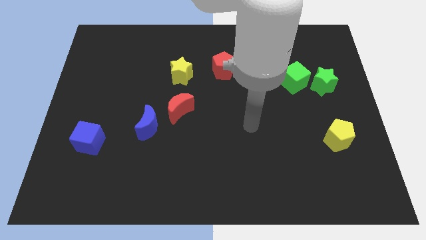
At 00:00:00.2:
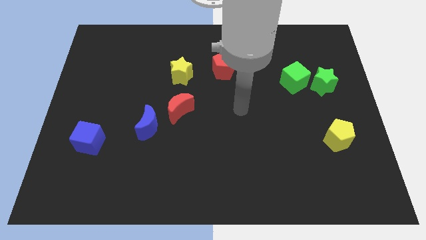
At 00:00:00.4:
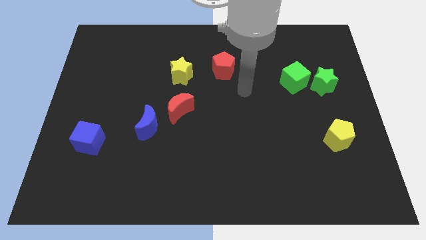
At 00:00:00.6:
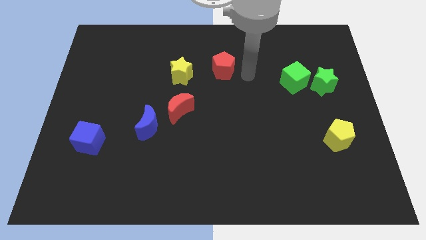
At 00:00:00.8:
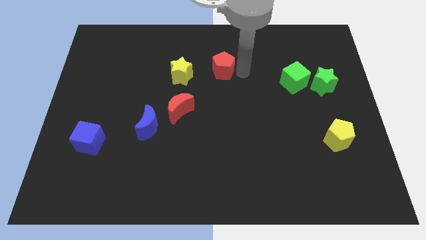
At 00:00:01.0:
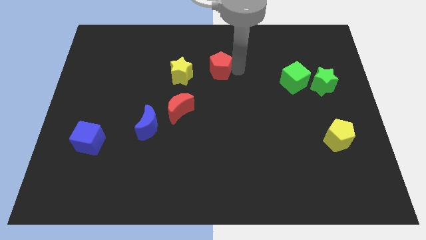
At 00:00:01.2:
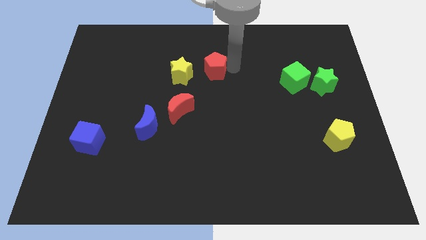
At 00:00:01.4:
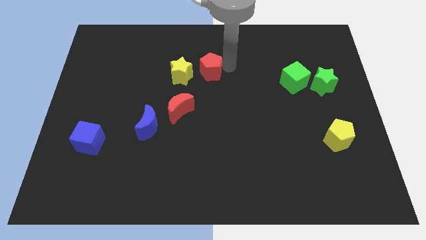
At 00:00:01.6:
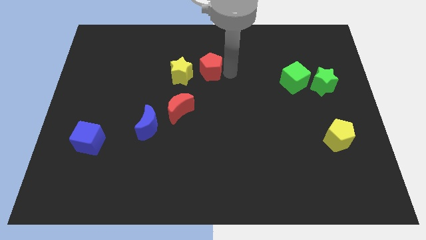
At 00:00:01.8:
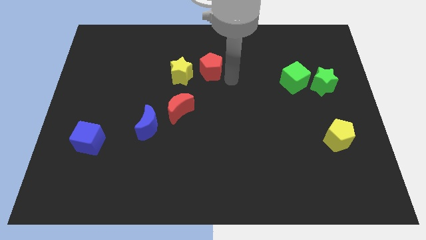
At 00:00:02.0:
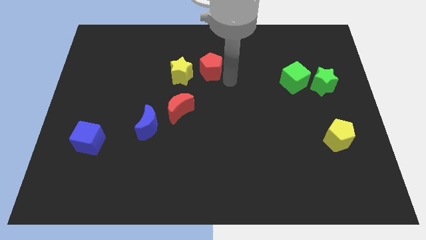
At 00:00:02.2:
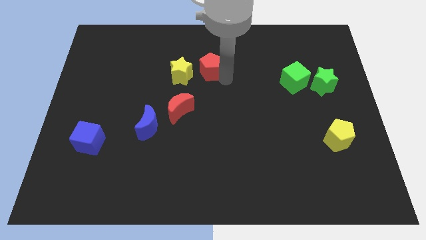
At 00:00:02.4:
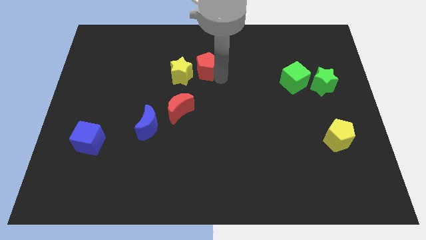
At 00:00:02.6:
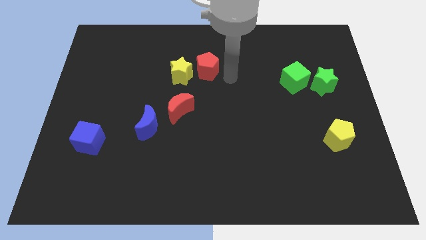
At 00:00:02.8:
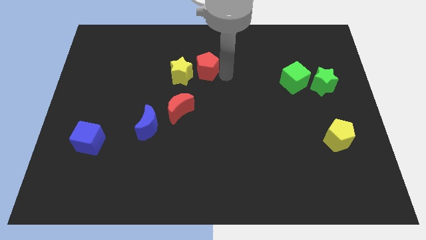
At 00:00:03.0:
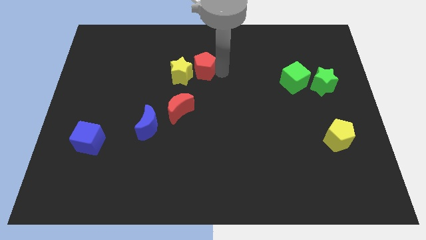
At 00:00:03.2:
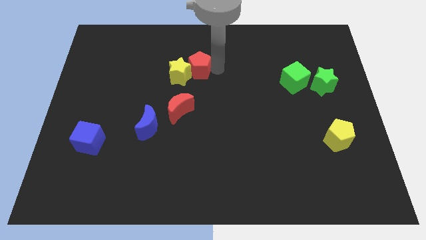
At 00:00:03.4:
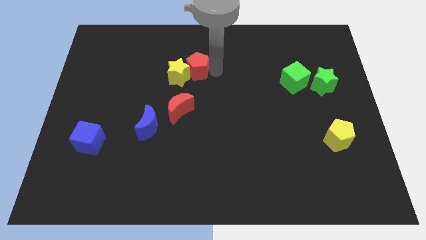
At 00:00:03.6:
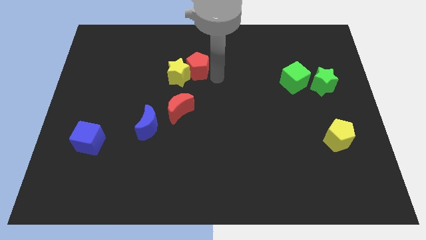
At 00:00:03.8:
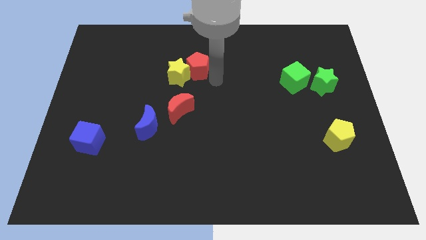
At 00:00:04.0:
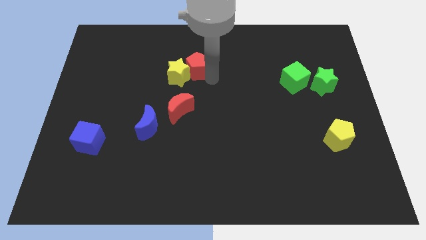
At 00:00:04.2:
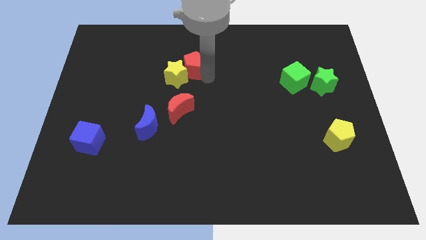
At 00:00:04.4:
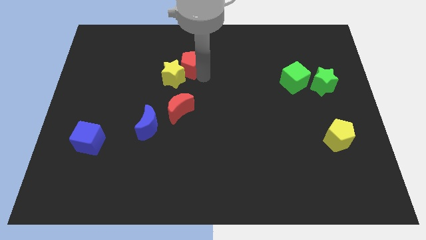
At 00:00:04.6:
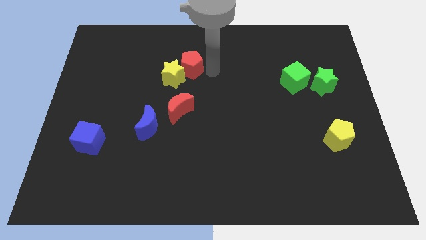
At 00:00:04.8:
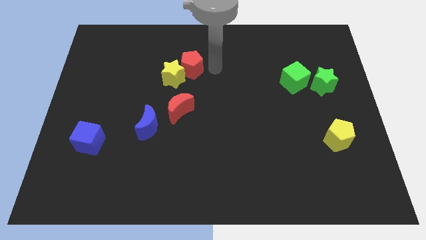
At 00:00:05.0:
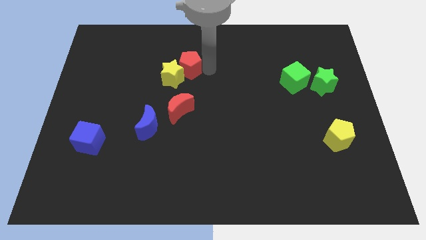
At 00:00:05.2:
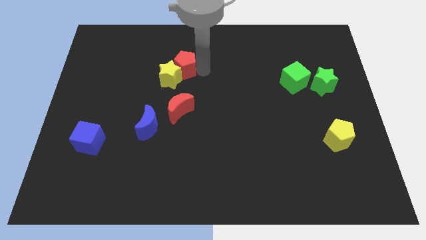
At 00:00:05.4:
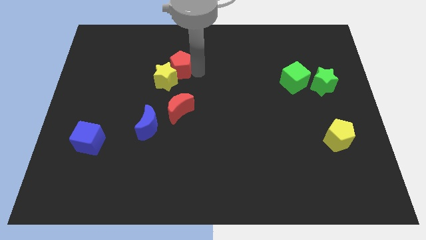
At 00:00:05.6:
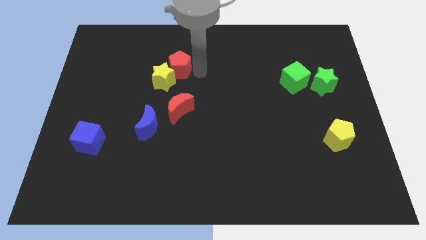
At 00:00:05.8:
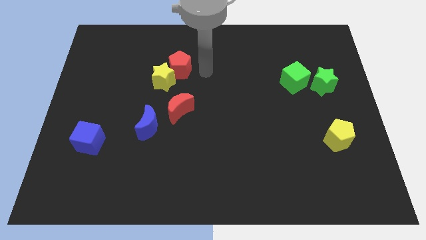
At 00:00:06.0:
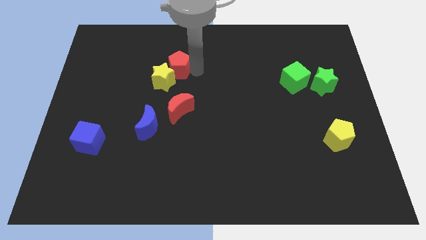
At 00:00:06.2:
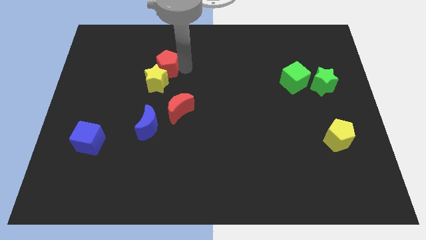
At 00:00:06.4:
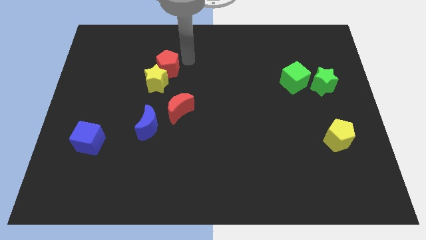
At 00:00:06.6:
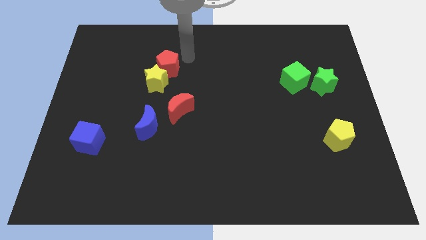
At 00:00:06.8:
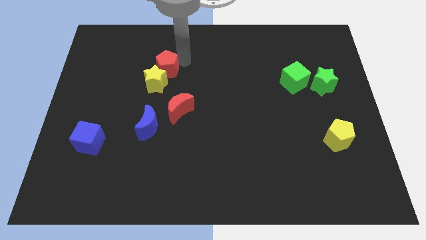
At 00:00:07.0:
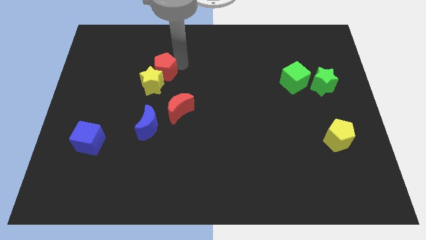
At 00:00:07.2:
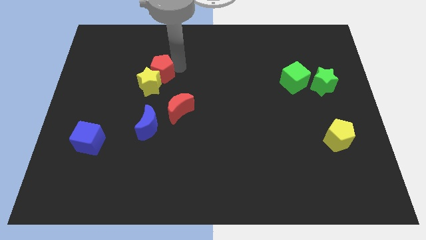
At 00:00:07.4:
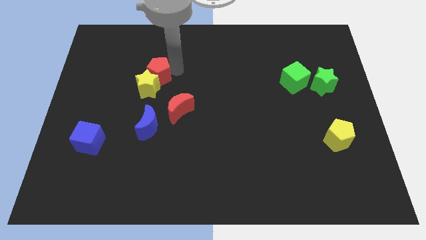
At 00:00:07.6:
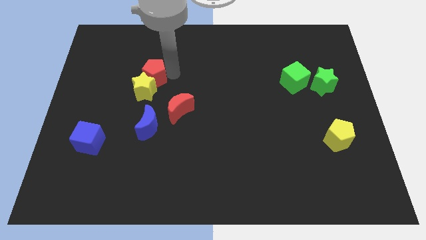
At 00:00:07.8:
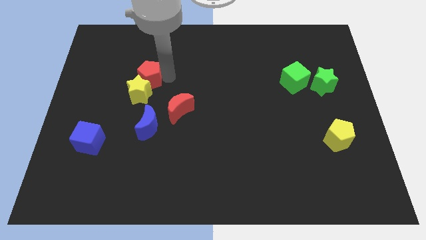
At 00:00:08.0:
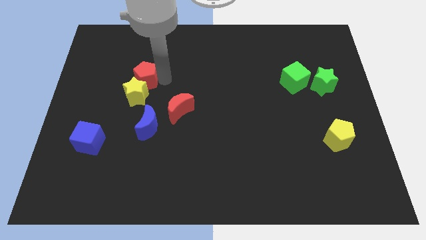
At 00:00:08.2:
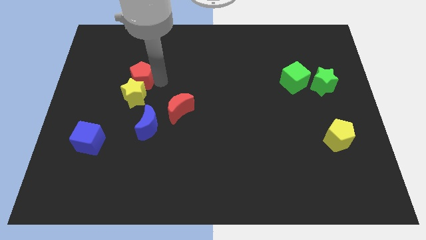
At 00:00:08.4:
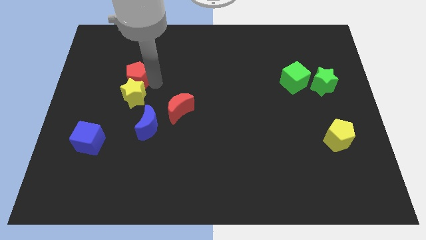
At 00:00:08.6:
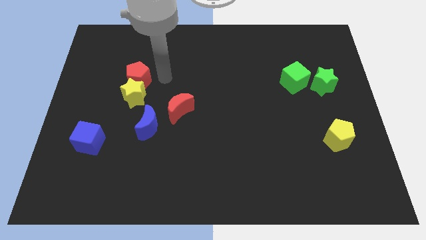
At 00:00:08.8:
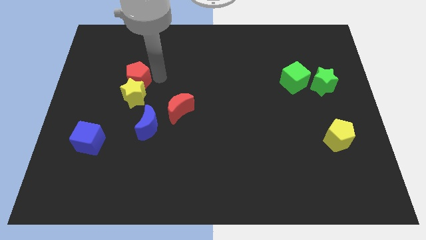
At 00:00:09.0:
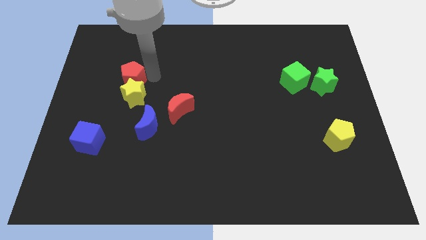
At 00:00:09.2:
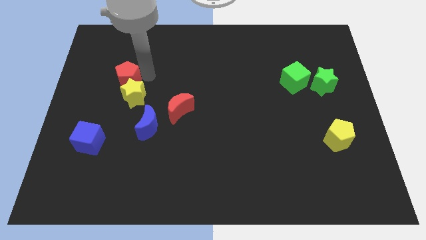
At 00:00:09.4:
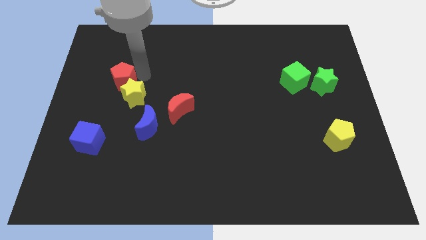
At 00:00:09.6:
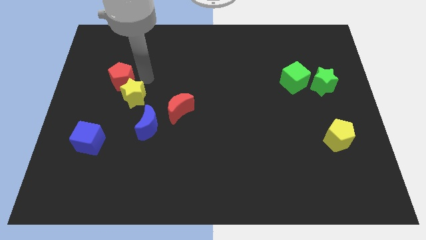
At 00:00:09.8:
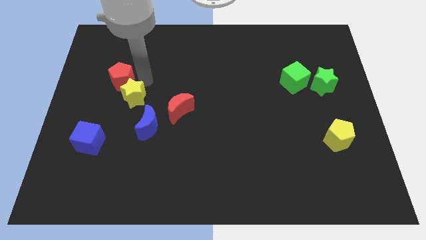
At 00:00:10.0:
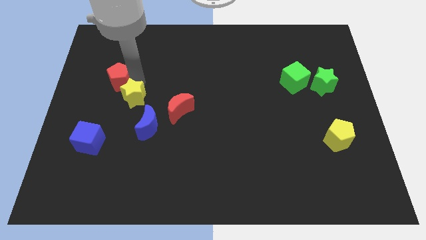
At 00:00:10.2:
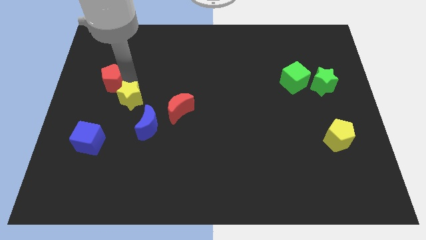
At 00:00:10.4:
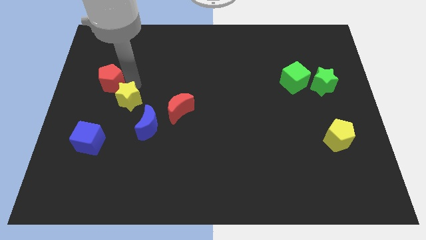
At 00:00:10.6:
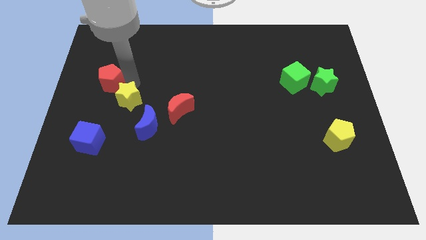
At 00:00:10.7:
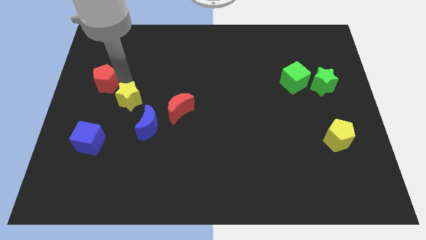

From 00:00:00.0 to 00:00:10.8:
push the red pentagon to the left side of the board

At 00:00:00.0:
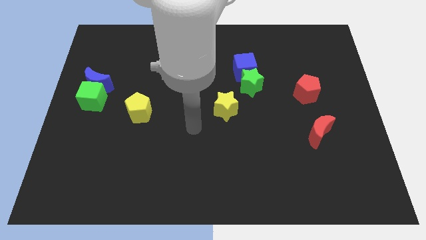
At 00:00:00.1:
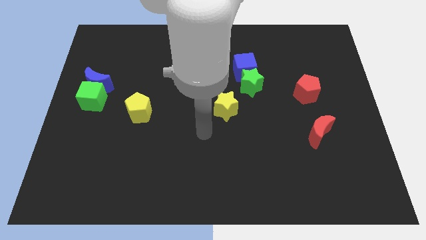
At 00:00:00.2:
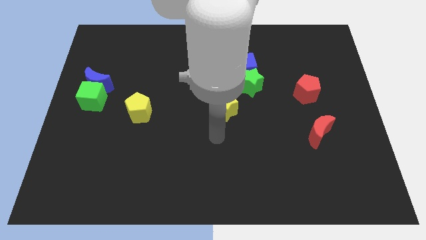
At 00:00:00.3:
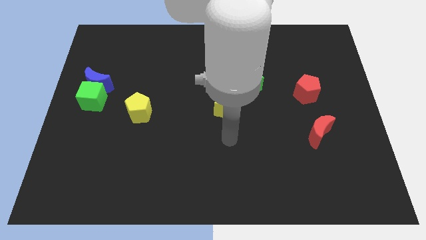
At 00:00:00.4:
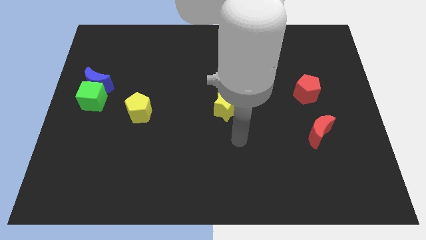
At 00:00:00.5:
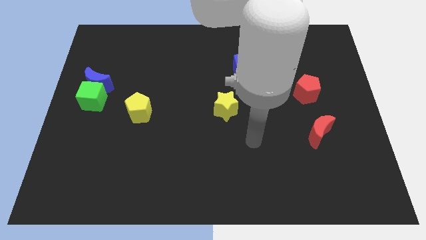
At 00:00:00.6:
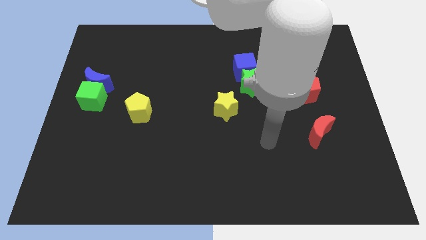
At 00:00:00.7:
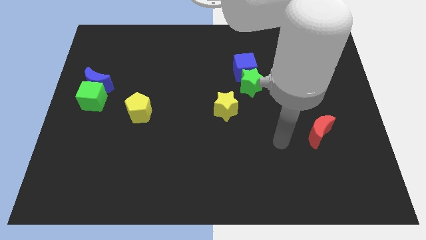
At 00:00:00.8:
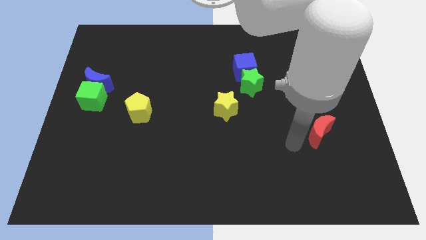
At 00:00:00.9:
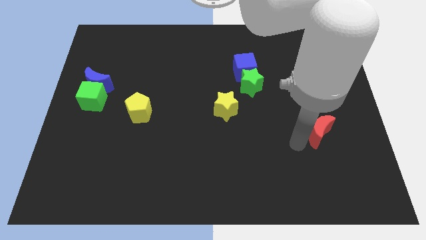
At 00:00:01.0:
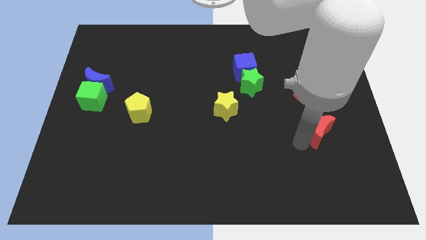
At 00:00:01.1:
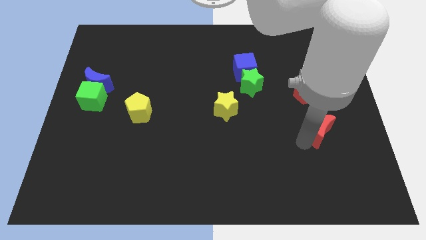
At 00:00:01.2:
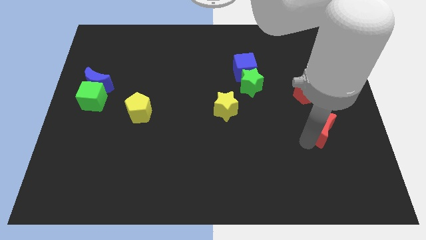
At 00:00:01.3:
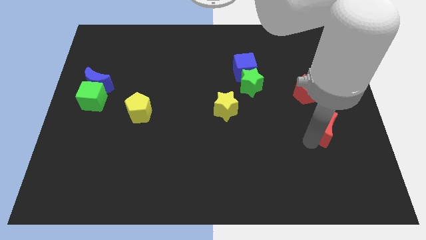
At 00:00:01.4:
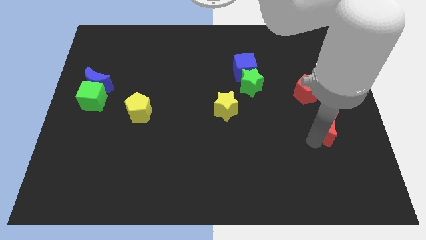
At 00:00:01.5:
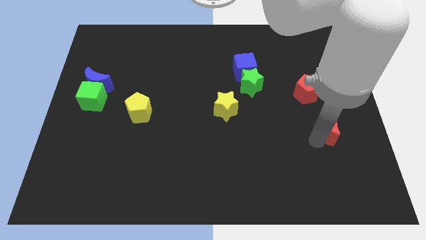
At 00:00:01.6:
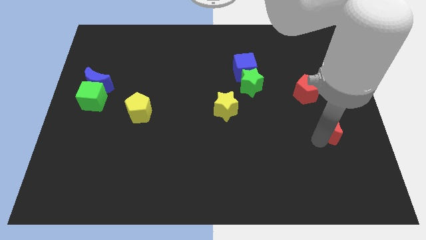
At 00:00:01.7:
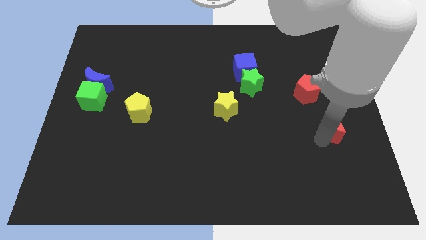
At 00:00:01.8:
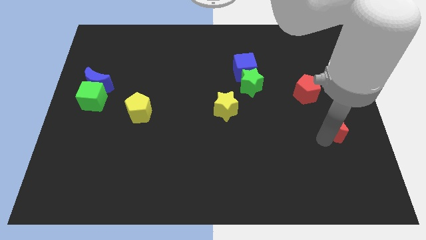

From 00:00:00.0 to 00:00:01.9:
move the red moon to the right side
